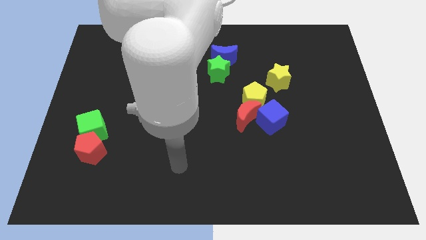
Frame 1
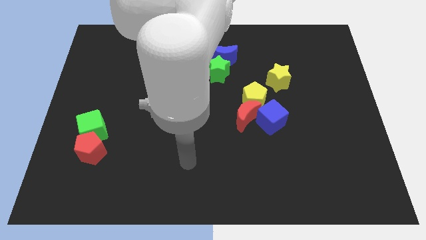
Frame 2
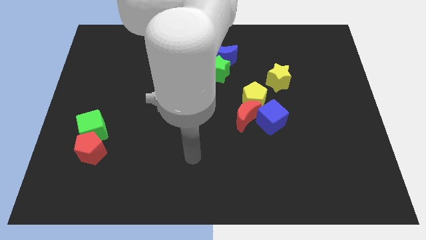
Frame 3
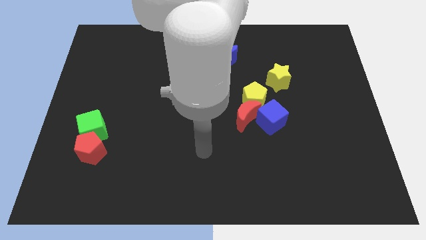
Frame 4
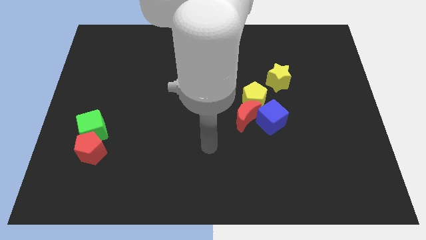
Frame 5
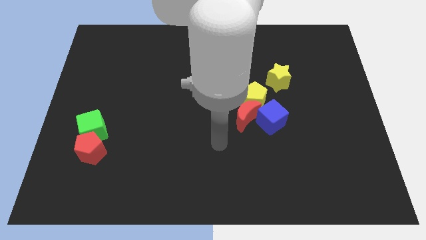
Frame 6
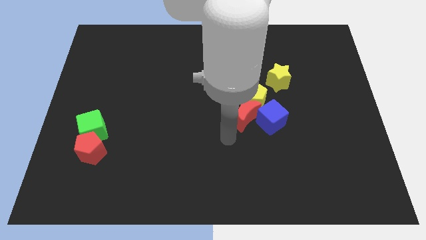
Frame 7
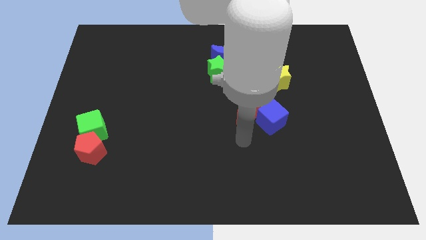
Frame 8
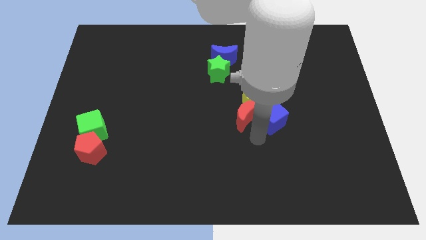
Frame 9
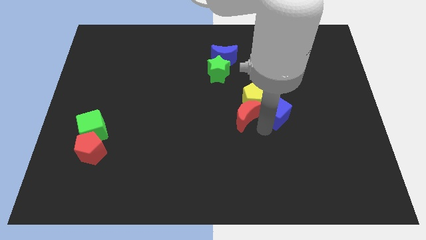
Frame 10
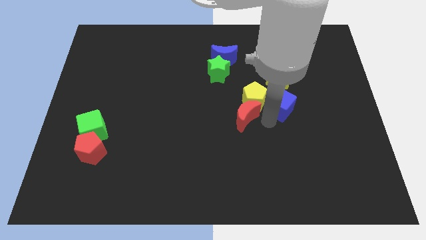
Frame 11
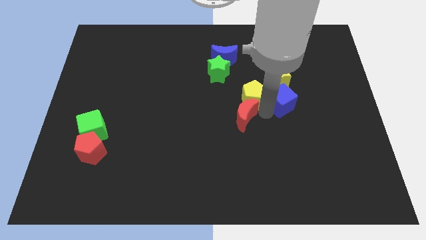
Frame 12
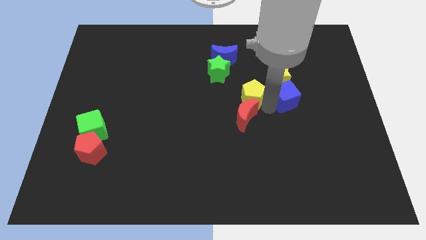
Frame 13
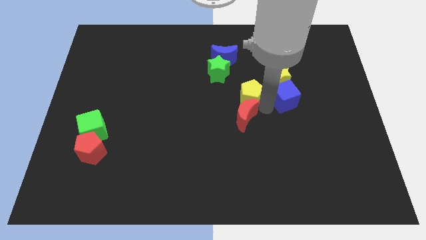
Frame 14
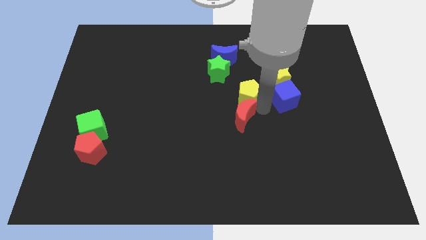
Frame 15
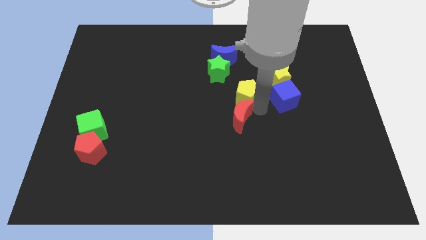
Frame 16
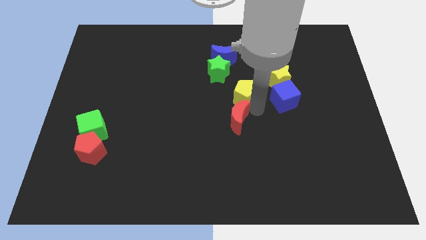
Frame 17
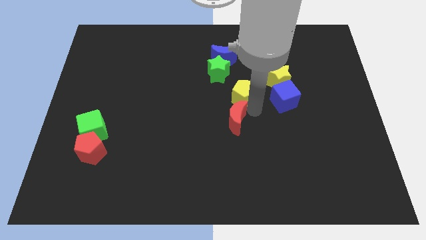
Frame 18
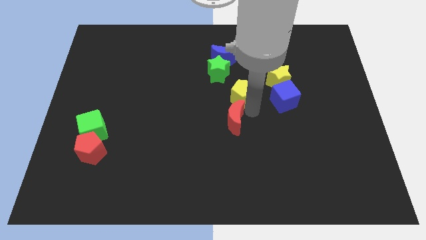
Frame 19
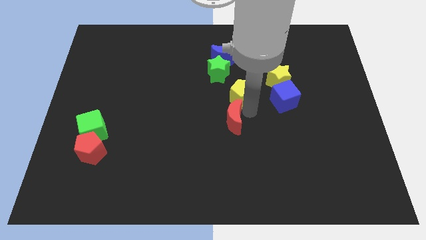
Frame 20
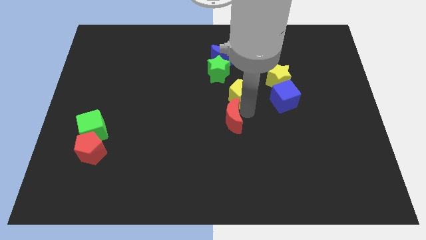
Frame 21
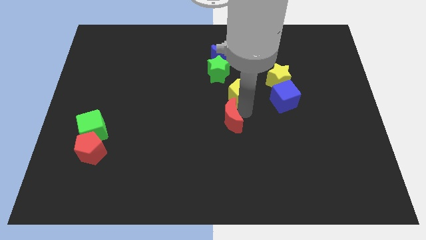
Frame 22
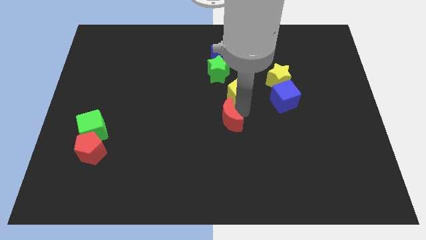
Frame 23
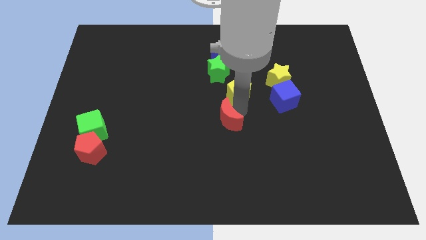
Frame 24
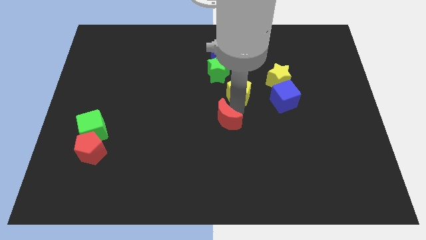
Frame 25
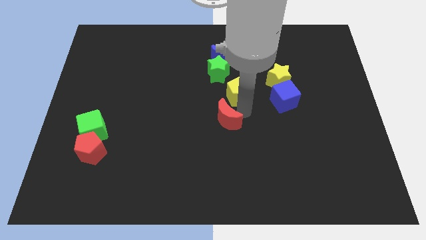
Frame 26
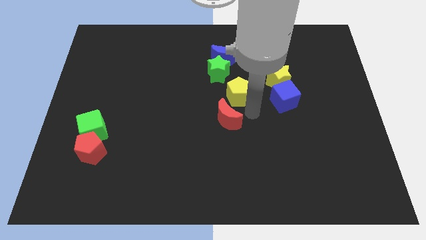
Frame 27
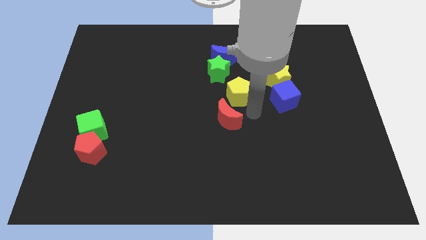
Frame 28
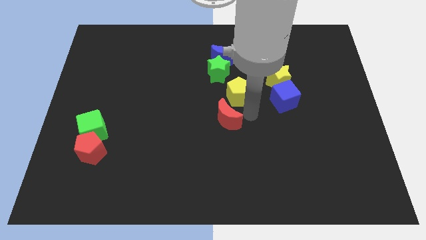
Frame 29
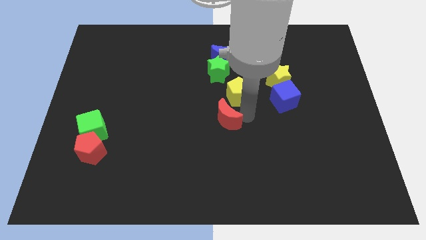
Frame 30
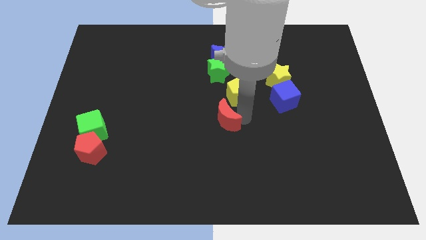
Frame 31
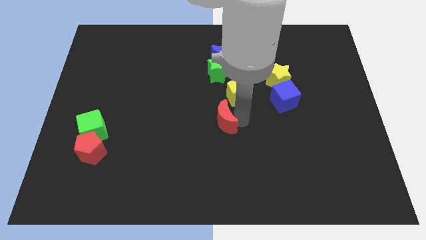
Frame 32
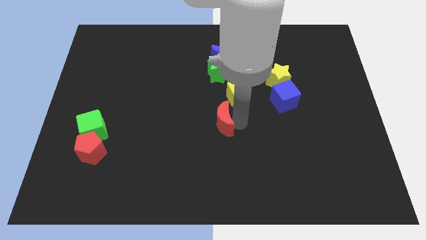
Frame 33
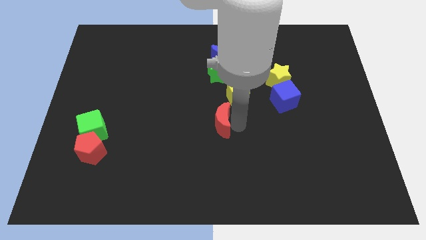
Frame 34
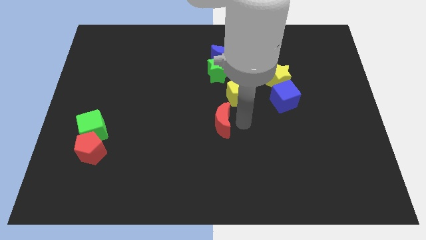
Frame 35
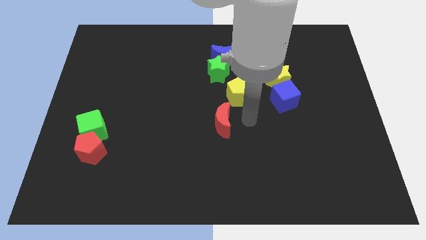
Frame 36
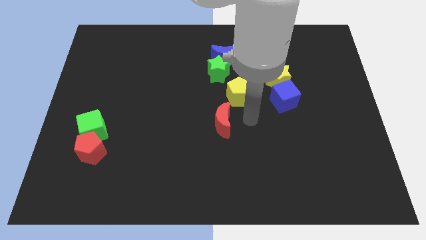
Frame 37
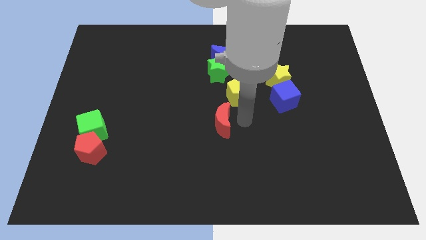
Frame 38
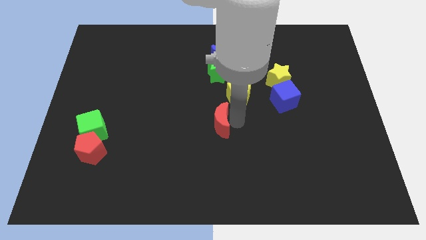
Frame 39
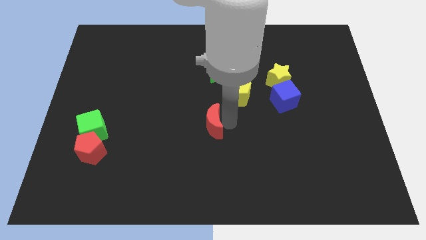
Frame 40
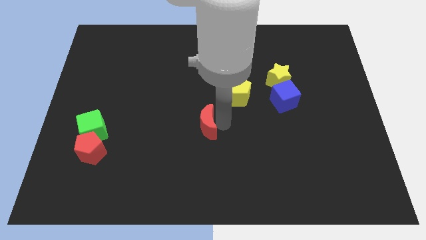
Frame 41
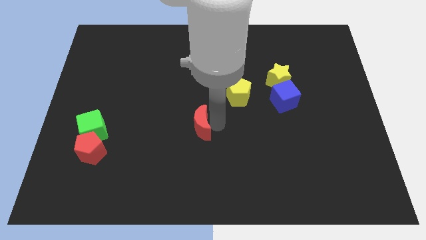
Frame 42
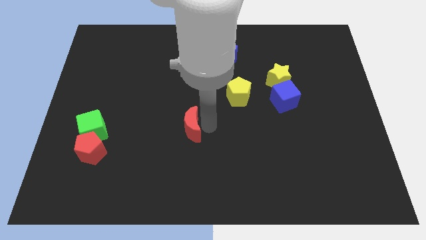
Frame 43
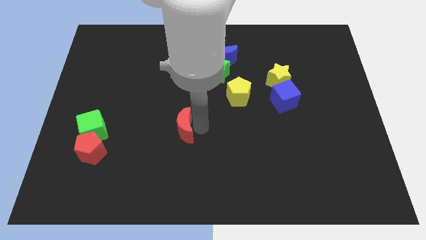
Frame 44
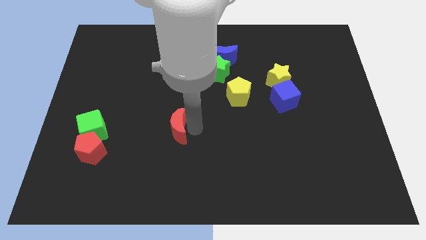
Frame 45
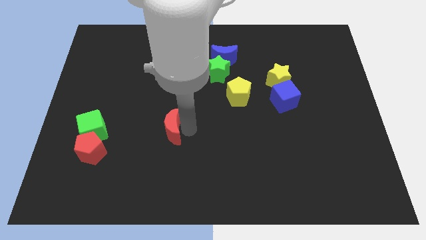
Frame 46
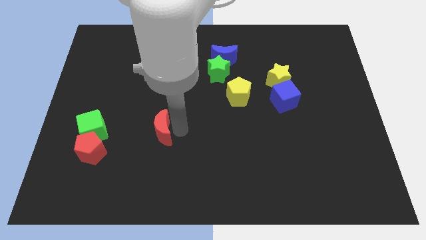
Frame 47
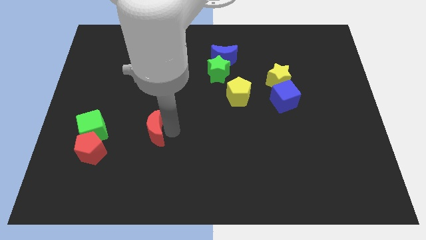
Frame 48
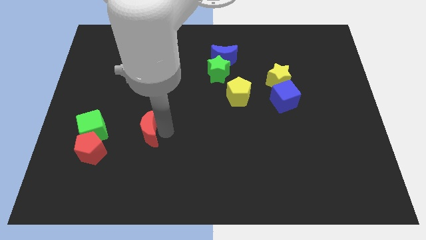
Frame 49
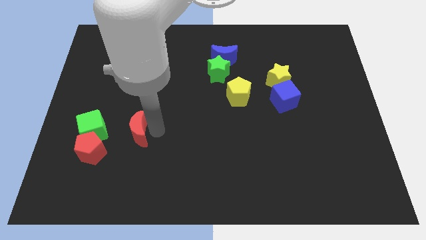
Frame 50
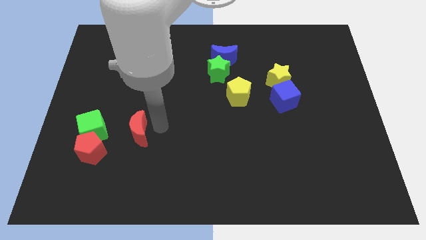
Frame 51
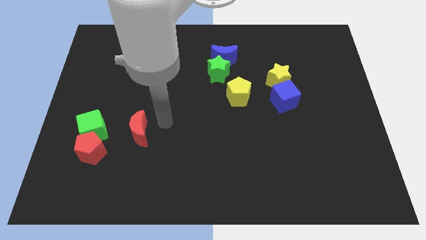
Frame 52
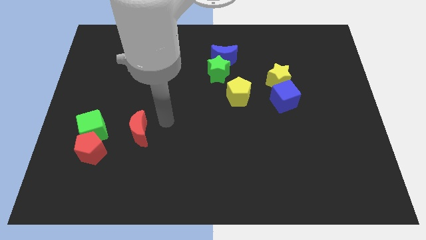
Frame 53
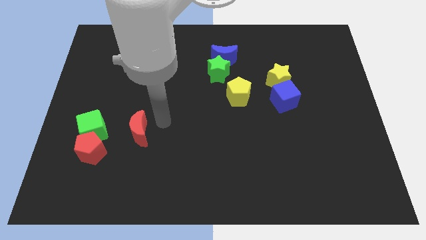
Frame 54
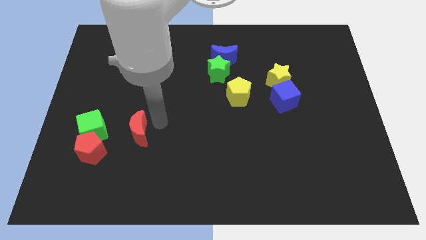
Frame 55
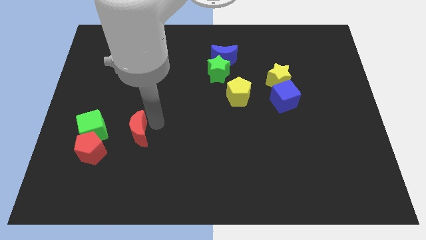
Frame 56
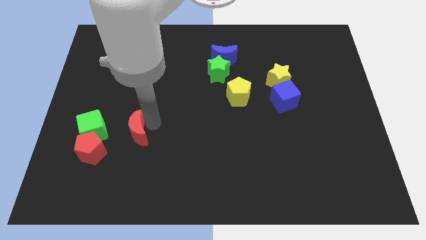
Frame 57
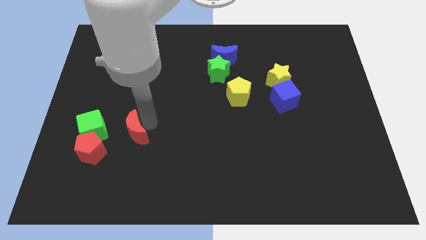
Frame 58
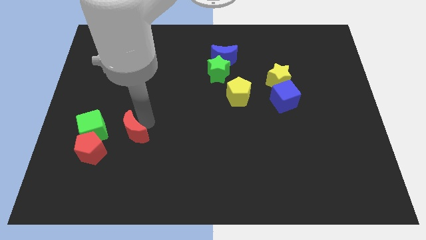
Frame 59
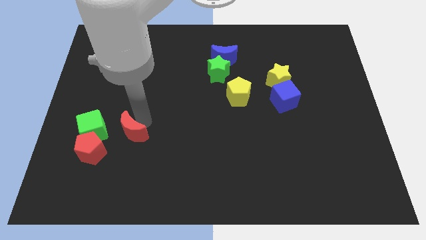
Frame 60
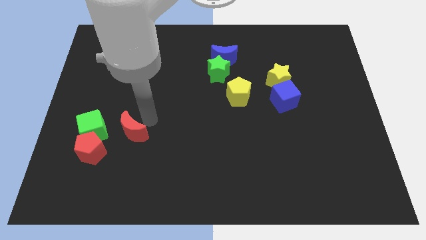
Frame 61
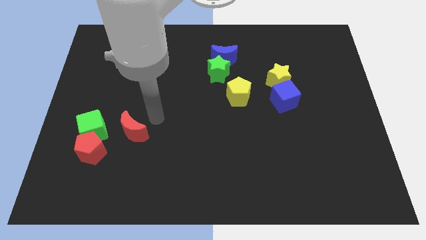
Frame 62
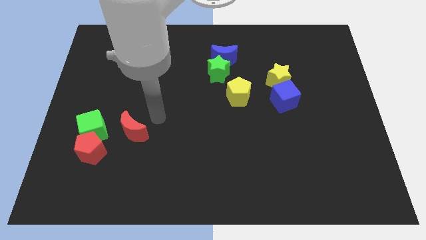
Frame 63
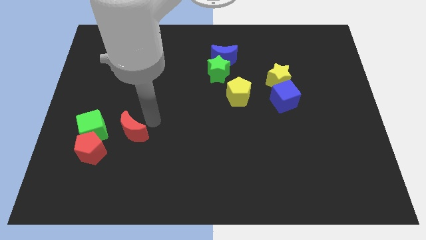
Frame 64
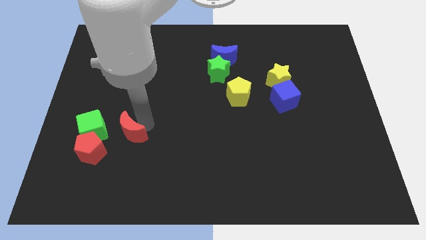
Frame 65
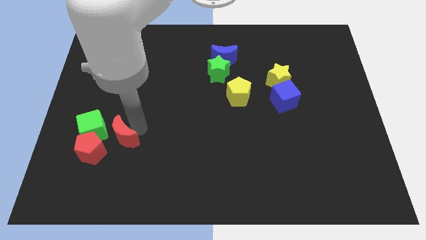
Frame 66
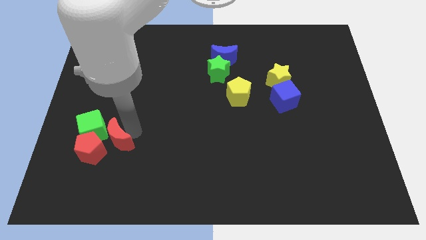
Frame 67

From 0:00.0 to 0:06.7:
push the red moon next to the red pentagon

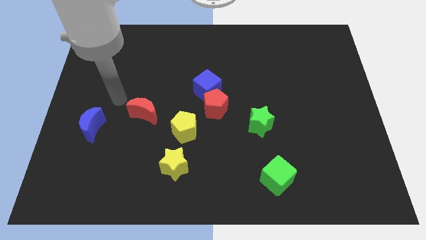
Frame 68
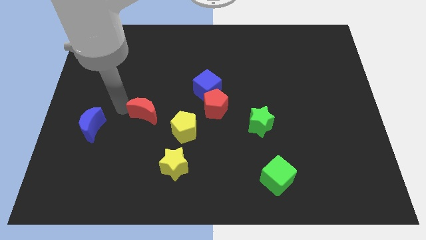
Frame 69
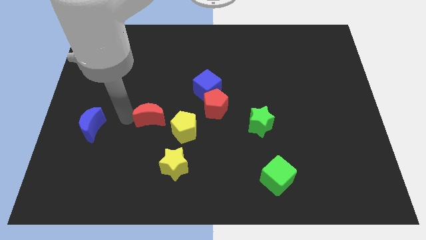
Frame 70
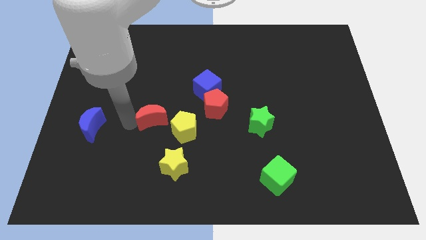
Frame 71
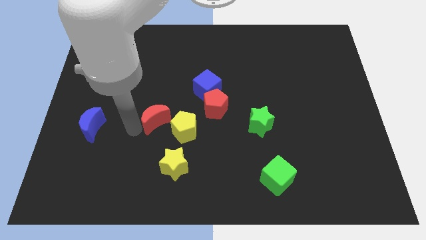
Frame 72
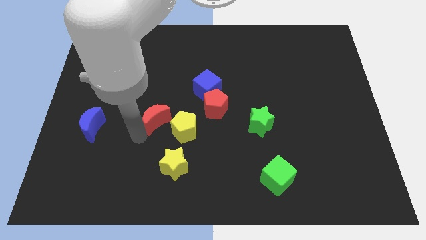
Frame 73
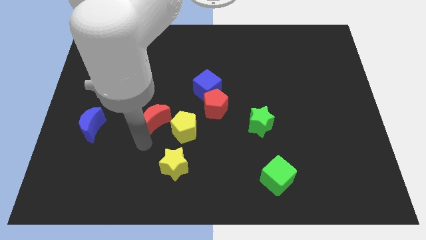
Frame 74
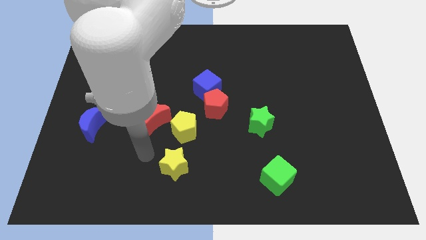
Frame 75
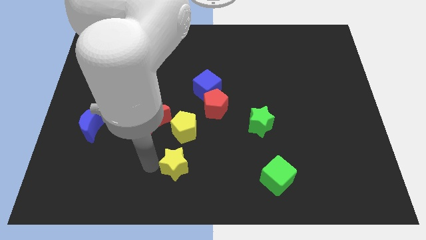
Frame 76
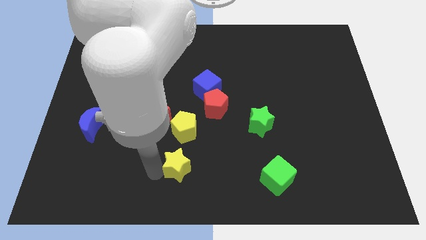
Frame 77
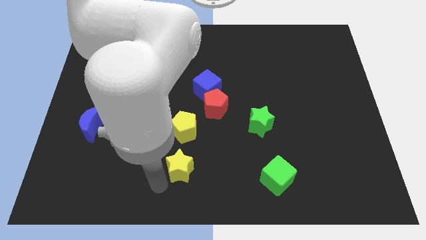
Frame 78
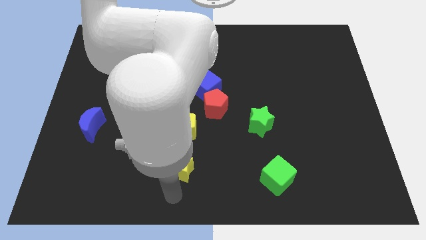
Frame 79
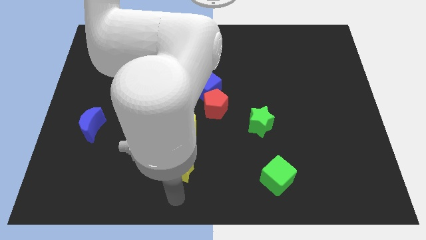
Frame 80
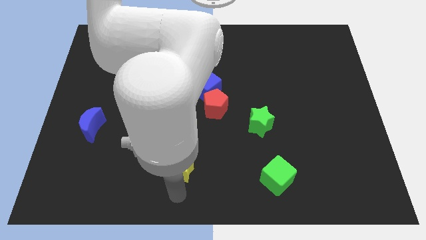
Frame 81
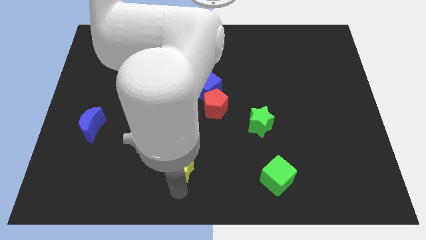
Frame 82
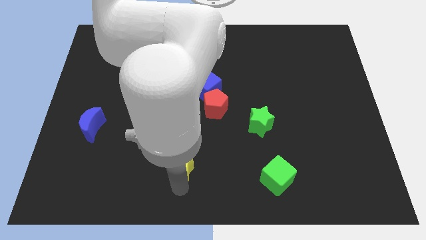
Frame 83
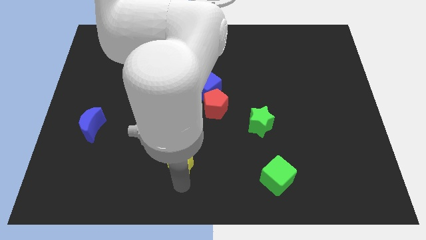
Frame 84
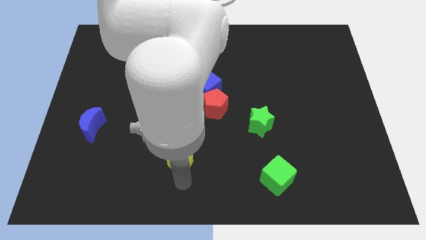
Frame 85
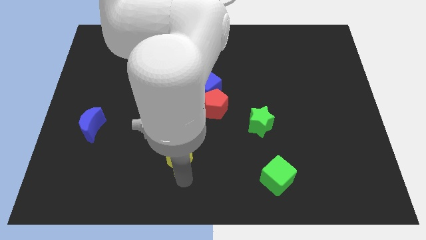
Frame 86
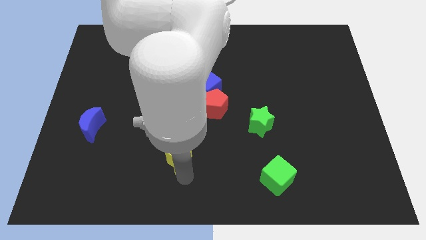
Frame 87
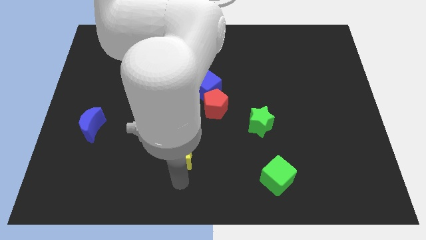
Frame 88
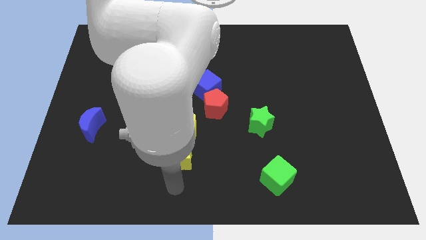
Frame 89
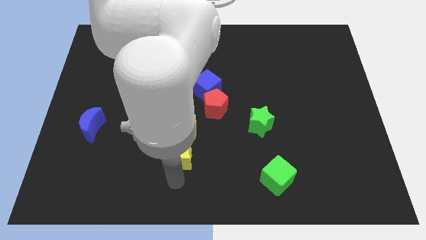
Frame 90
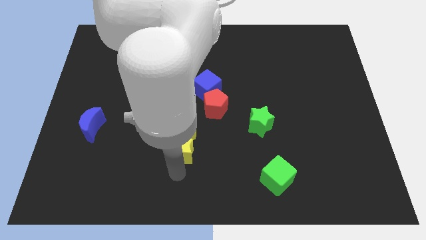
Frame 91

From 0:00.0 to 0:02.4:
put the yellow star close to the yellow pentagon
